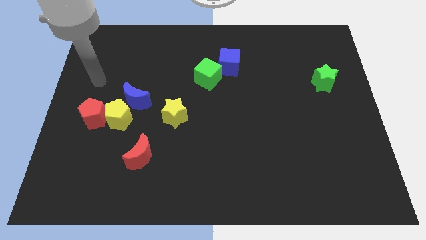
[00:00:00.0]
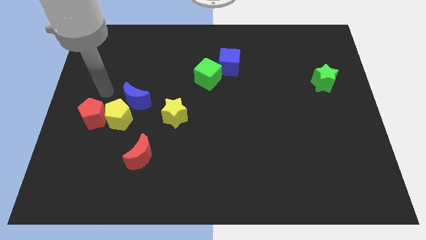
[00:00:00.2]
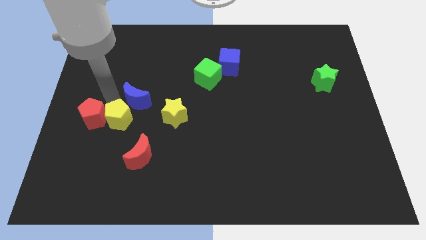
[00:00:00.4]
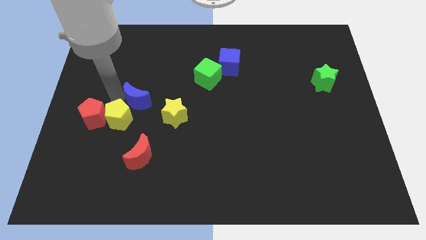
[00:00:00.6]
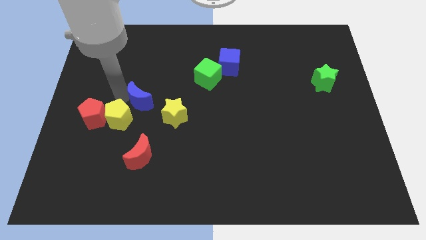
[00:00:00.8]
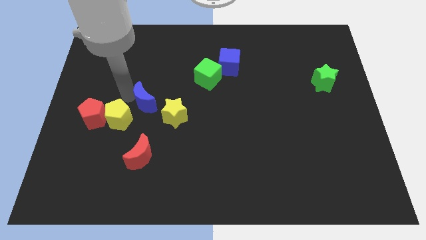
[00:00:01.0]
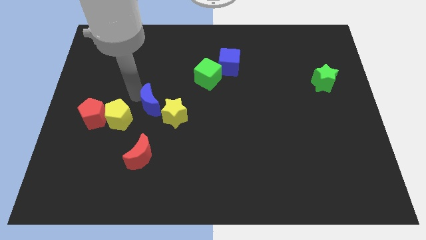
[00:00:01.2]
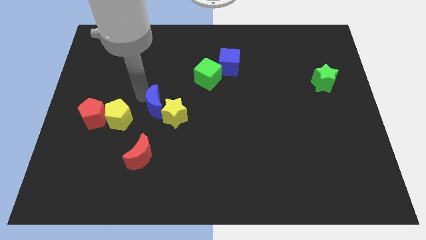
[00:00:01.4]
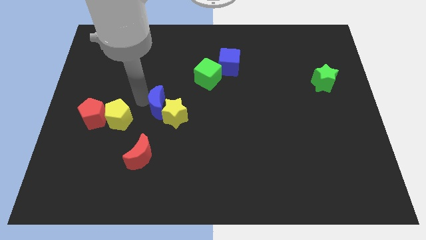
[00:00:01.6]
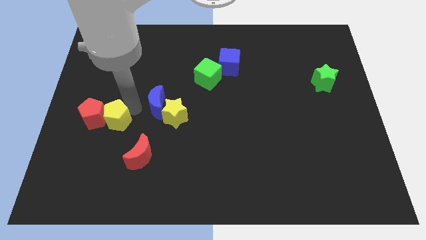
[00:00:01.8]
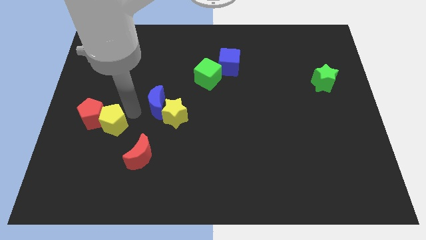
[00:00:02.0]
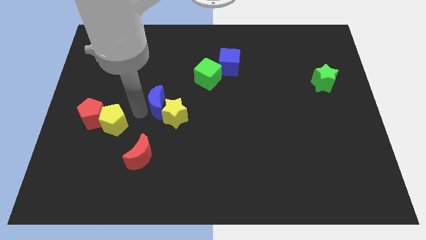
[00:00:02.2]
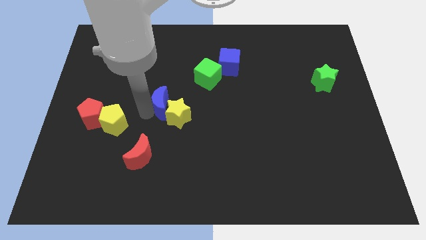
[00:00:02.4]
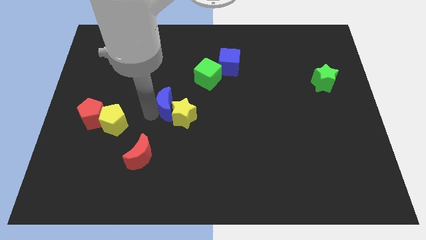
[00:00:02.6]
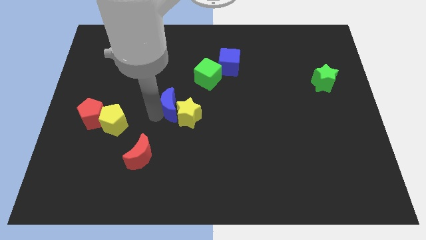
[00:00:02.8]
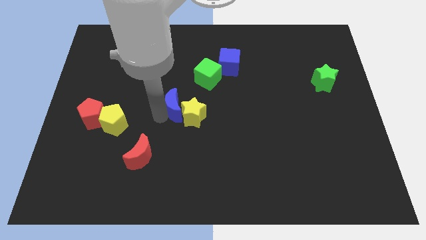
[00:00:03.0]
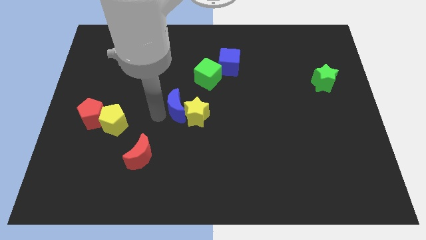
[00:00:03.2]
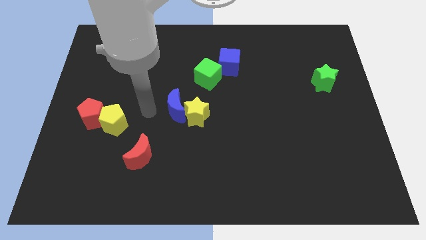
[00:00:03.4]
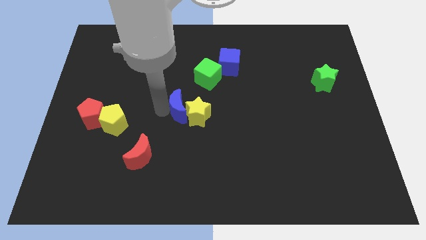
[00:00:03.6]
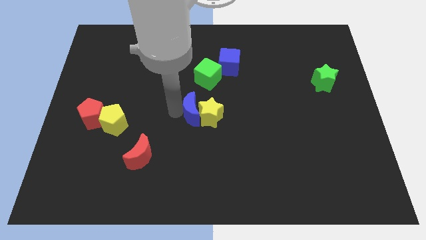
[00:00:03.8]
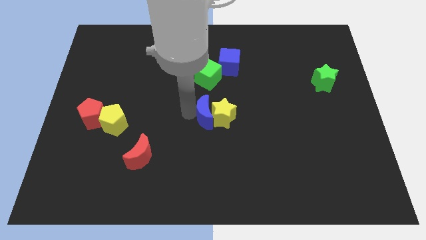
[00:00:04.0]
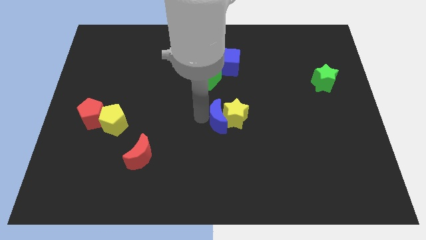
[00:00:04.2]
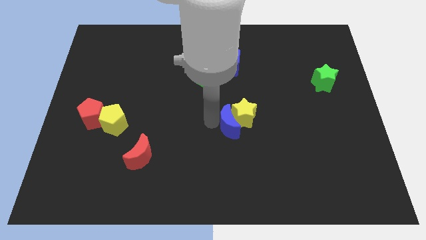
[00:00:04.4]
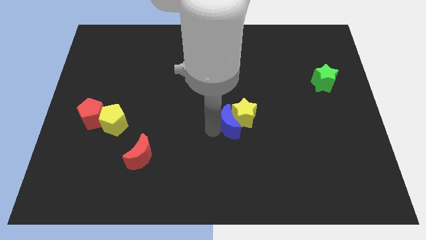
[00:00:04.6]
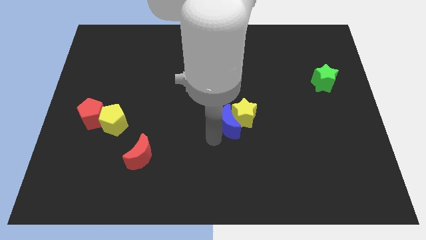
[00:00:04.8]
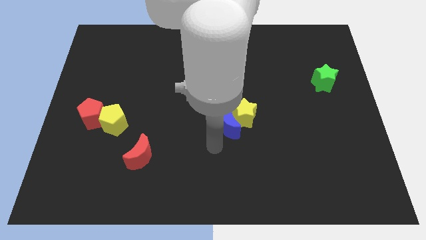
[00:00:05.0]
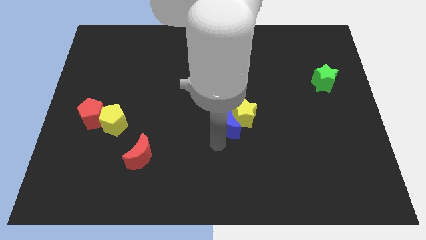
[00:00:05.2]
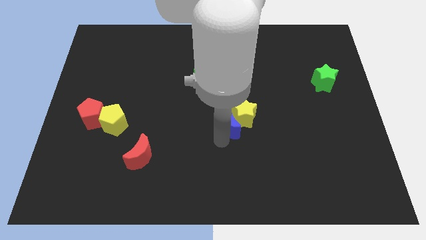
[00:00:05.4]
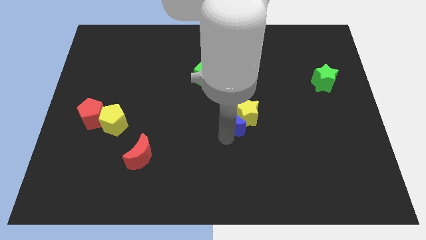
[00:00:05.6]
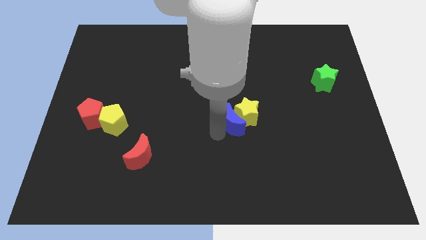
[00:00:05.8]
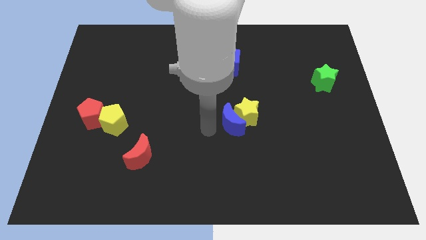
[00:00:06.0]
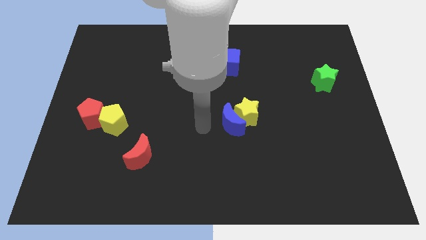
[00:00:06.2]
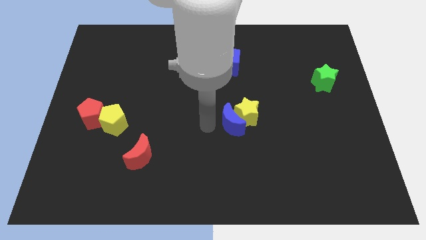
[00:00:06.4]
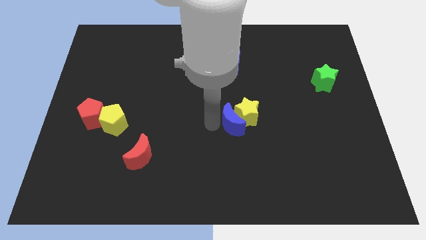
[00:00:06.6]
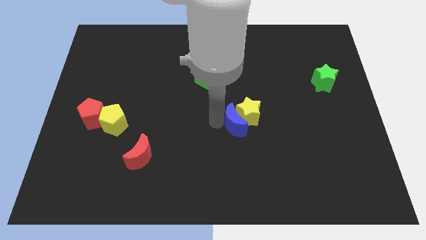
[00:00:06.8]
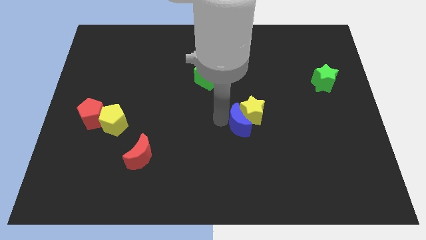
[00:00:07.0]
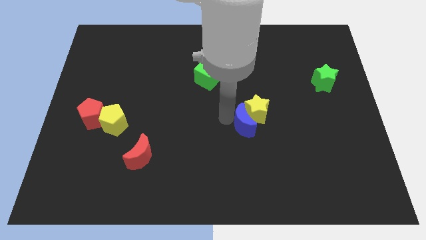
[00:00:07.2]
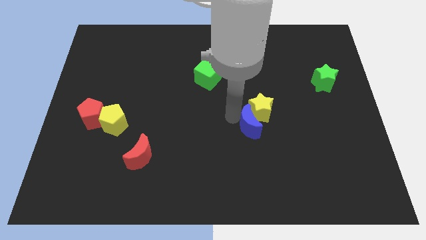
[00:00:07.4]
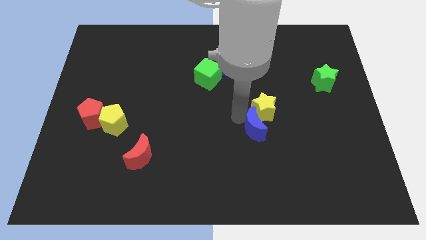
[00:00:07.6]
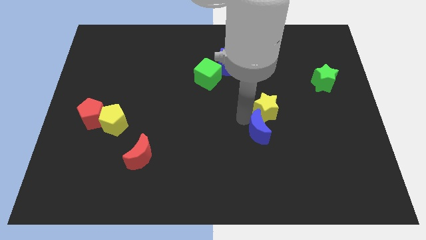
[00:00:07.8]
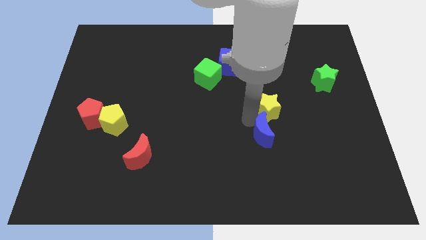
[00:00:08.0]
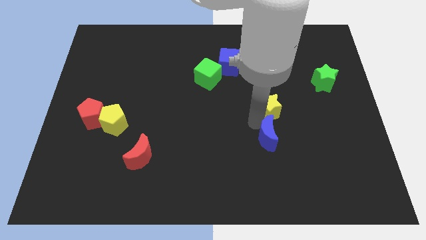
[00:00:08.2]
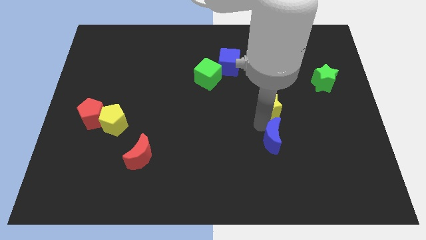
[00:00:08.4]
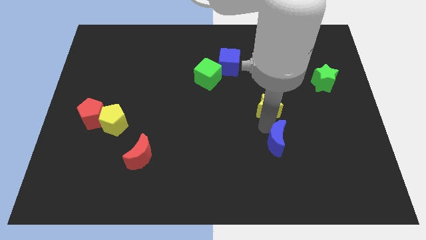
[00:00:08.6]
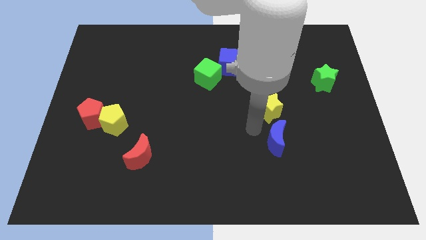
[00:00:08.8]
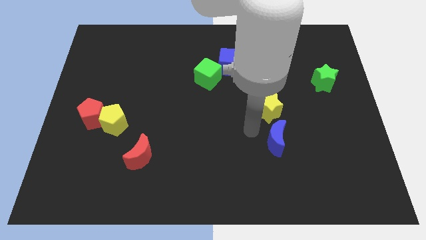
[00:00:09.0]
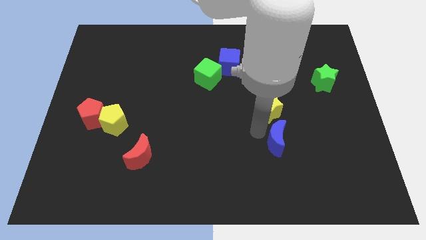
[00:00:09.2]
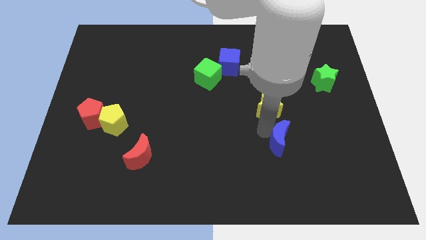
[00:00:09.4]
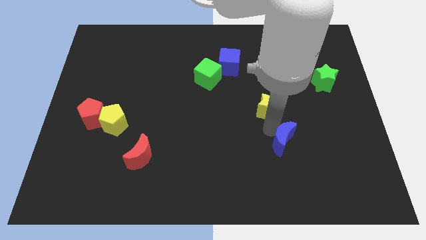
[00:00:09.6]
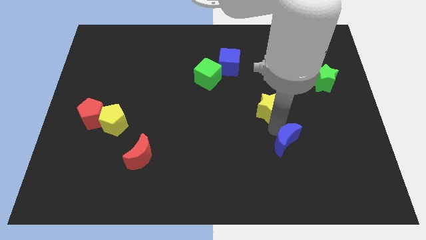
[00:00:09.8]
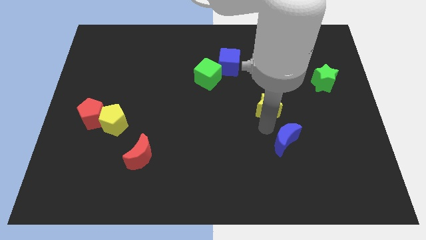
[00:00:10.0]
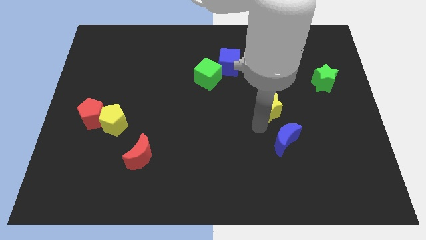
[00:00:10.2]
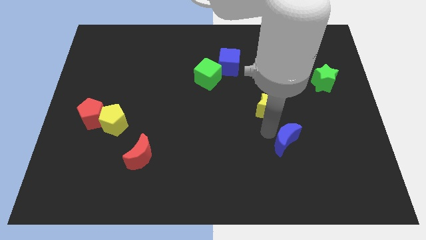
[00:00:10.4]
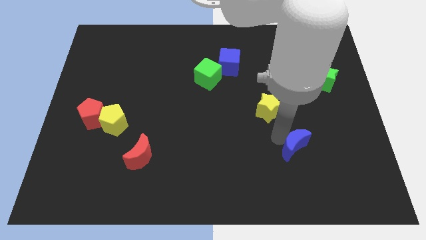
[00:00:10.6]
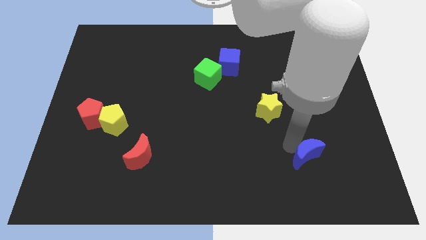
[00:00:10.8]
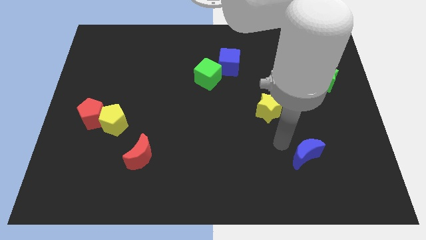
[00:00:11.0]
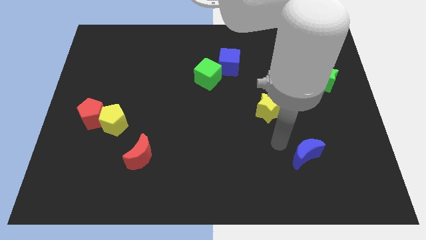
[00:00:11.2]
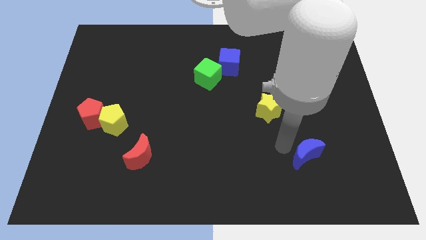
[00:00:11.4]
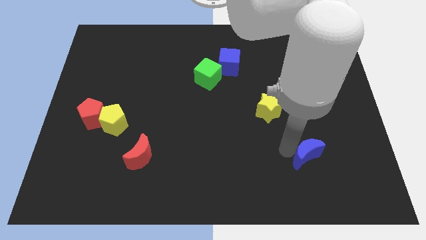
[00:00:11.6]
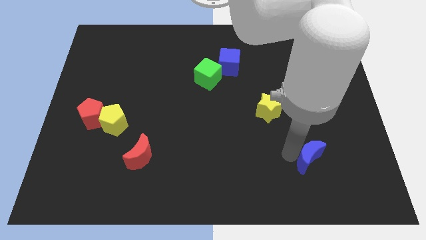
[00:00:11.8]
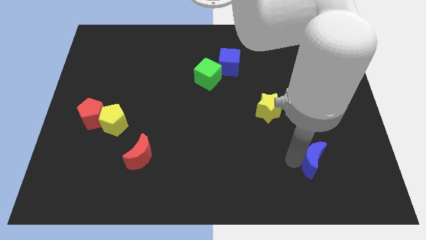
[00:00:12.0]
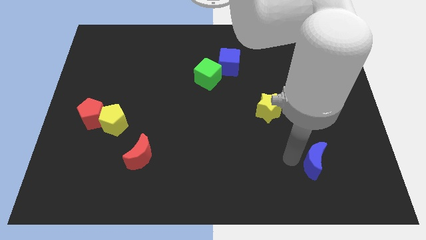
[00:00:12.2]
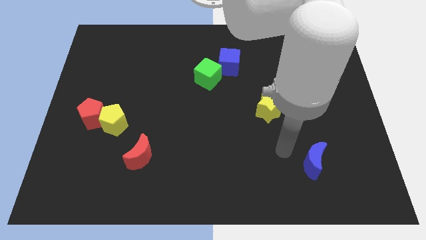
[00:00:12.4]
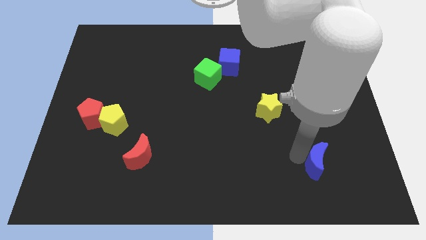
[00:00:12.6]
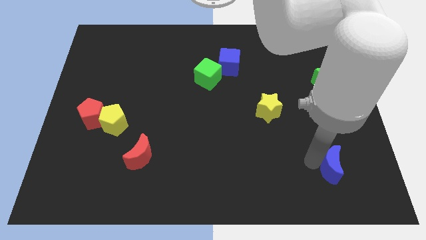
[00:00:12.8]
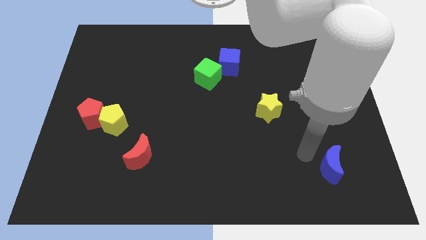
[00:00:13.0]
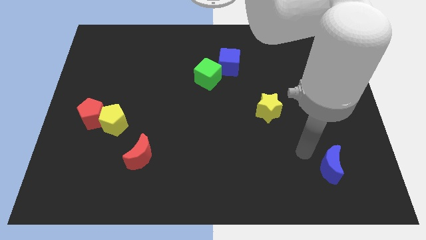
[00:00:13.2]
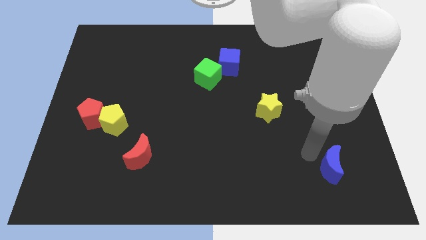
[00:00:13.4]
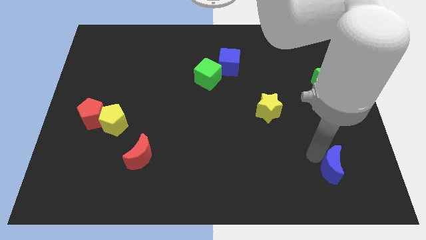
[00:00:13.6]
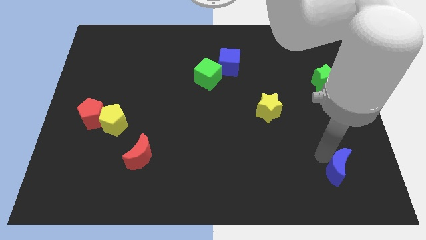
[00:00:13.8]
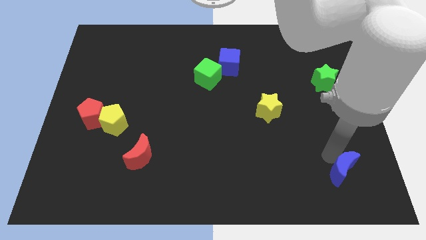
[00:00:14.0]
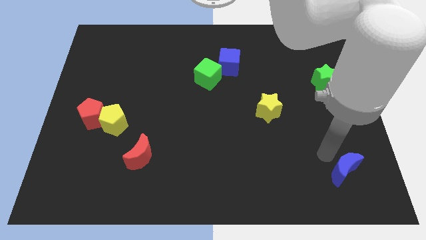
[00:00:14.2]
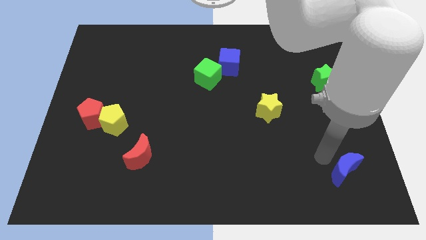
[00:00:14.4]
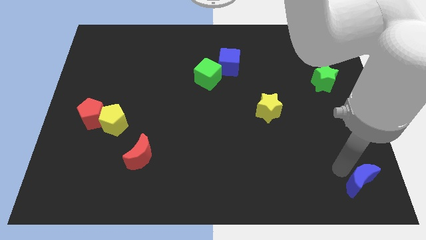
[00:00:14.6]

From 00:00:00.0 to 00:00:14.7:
push the blue moon to the bottom right of the board
